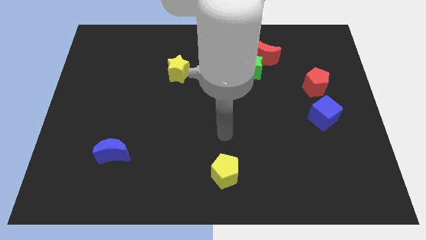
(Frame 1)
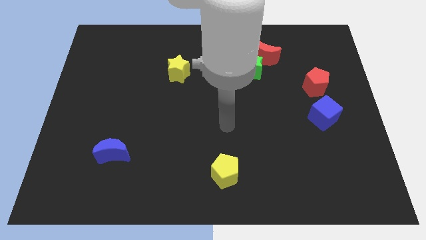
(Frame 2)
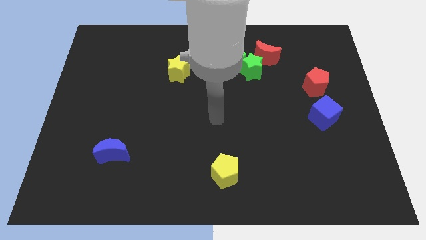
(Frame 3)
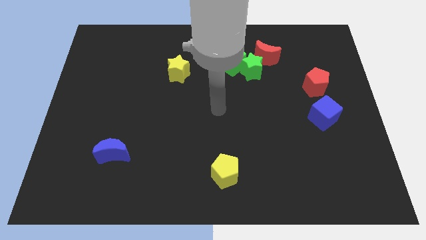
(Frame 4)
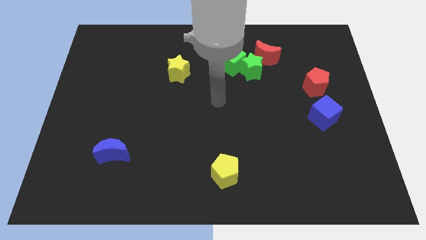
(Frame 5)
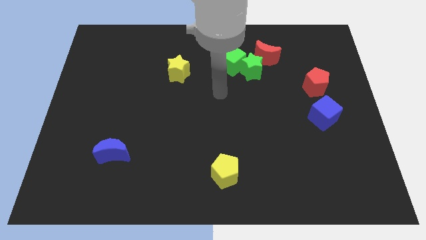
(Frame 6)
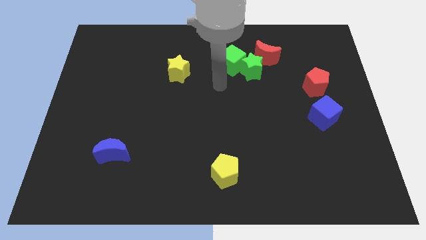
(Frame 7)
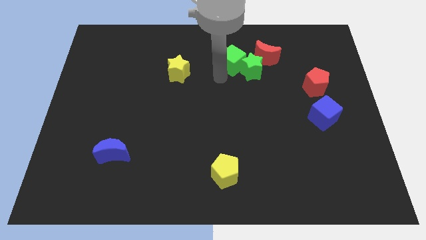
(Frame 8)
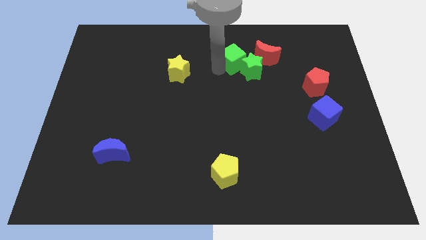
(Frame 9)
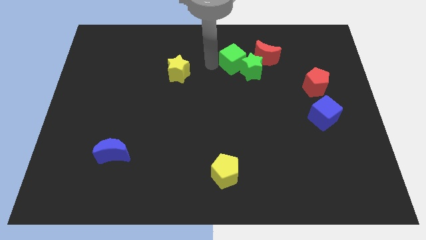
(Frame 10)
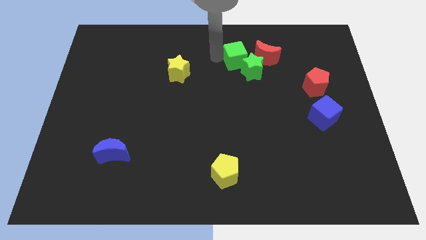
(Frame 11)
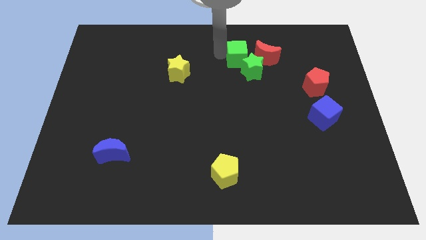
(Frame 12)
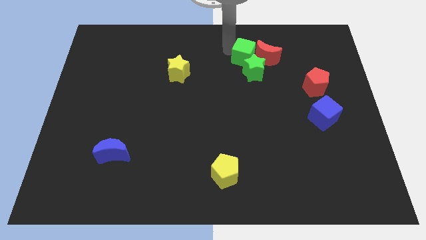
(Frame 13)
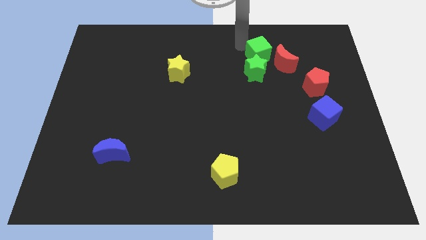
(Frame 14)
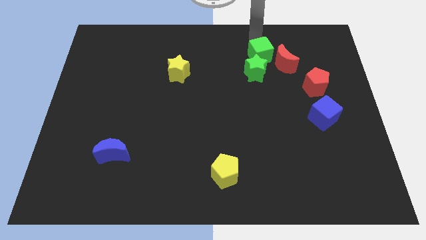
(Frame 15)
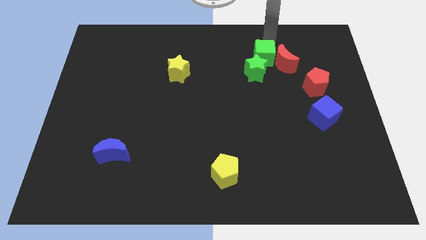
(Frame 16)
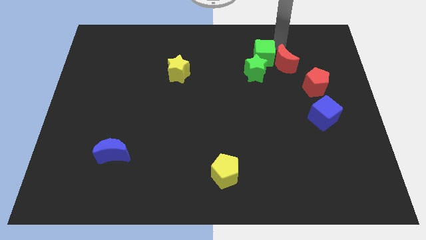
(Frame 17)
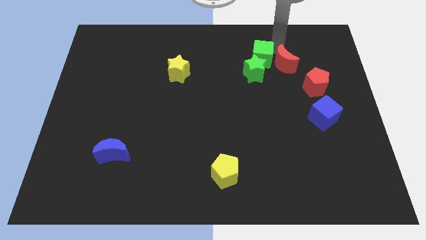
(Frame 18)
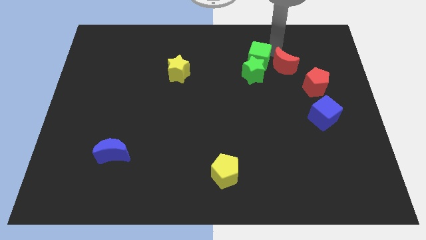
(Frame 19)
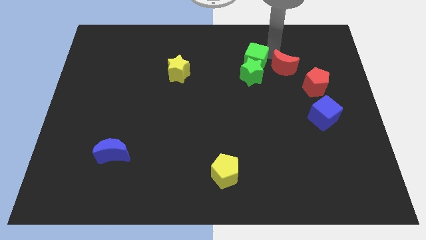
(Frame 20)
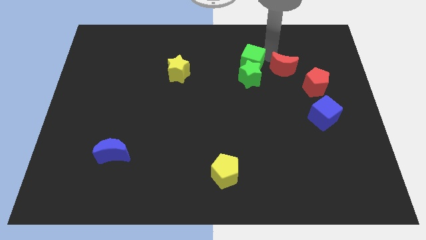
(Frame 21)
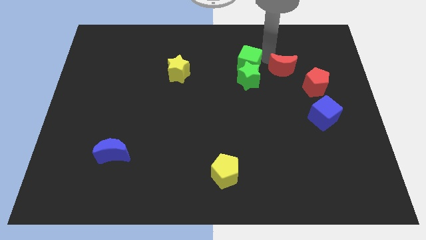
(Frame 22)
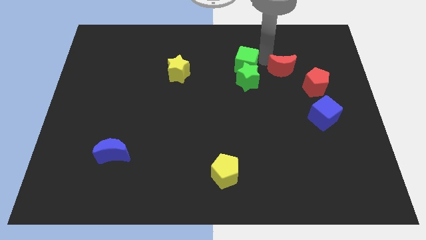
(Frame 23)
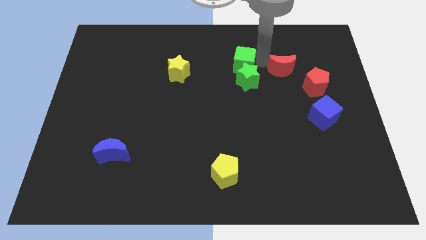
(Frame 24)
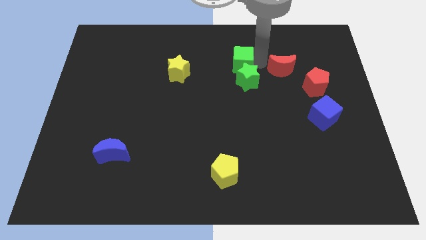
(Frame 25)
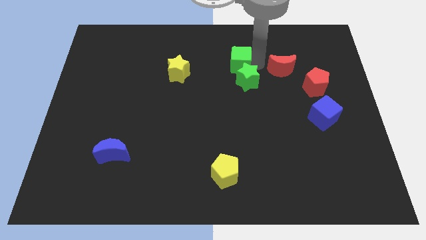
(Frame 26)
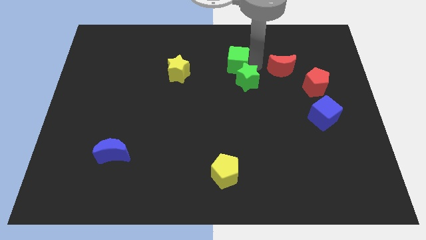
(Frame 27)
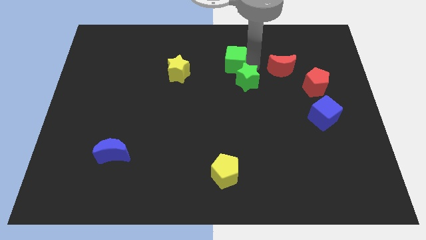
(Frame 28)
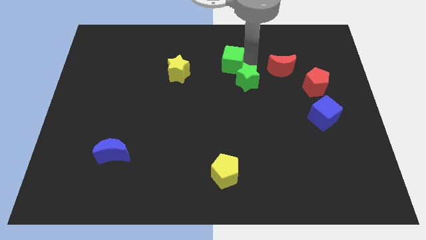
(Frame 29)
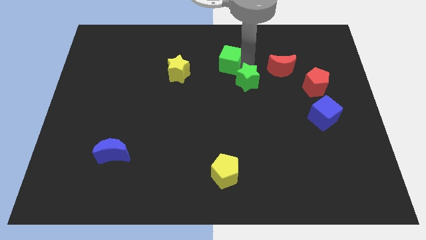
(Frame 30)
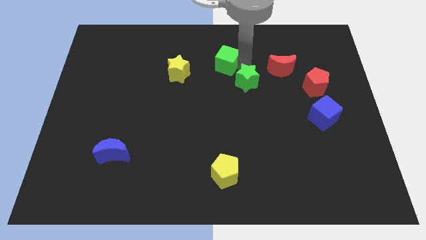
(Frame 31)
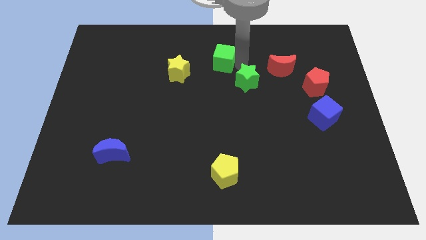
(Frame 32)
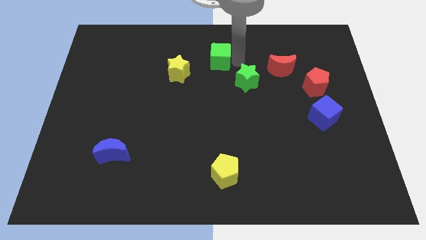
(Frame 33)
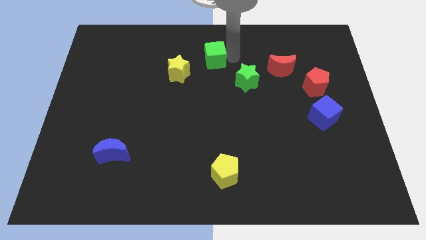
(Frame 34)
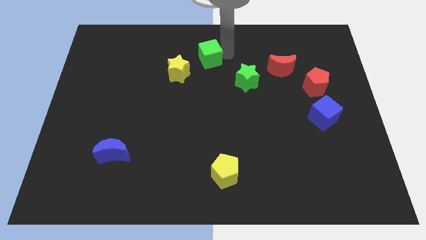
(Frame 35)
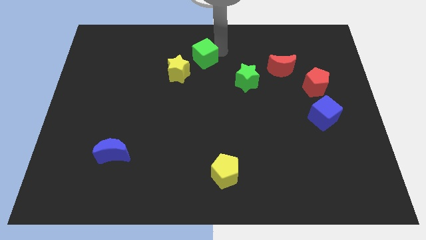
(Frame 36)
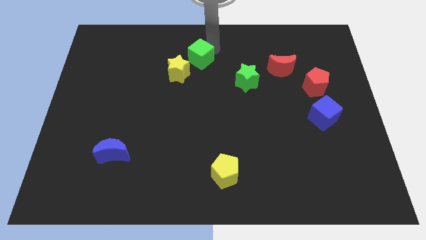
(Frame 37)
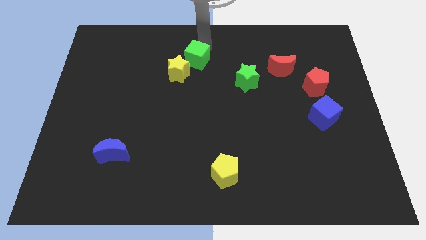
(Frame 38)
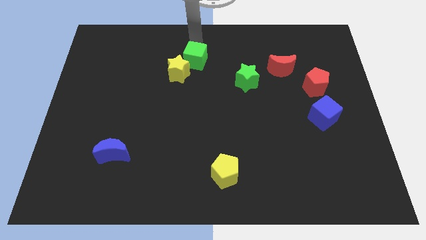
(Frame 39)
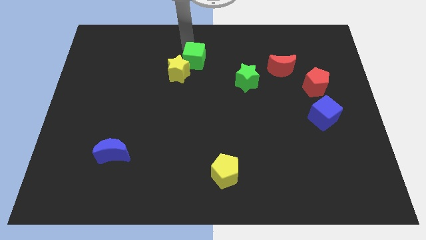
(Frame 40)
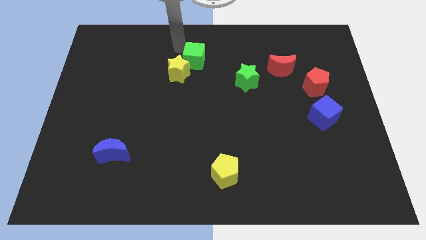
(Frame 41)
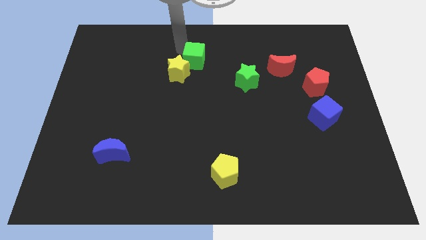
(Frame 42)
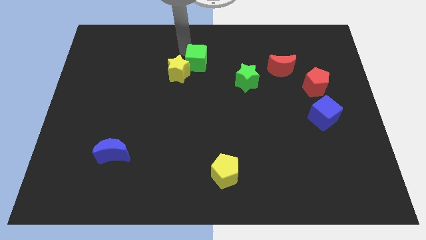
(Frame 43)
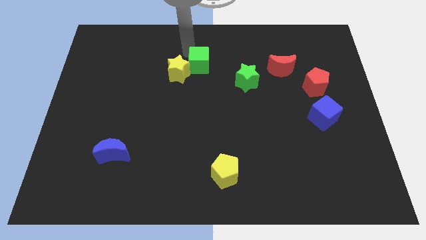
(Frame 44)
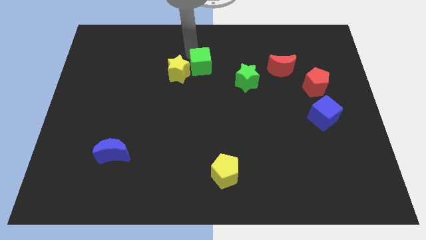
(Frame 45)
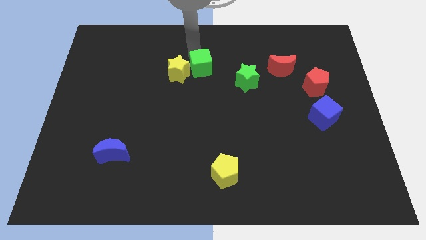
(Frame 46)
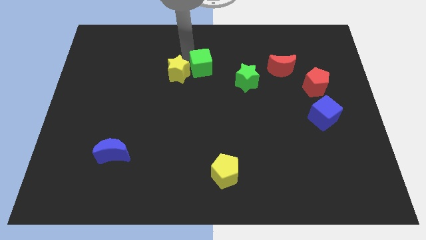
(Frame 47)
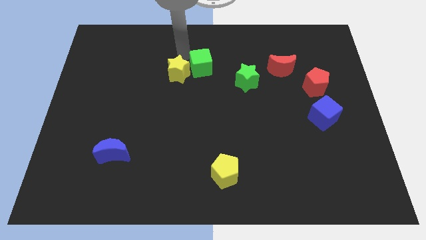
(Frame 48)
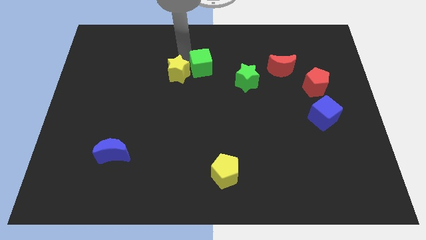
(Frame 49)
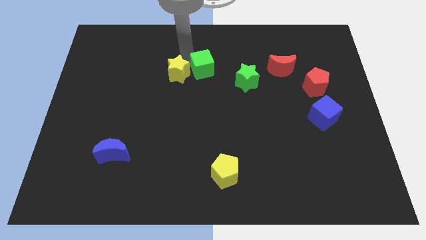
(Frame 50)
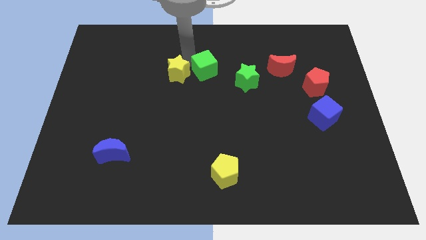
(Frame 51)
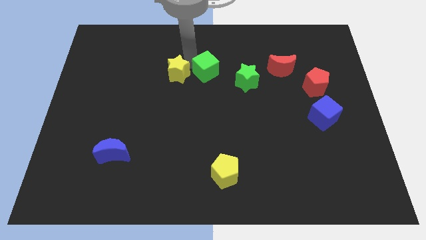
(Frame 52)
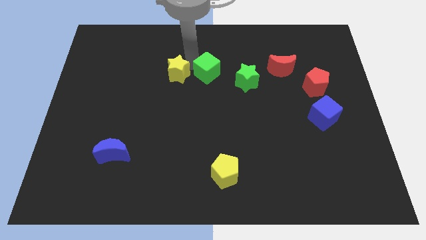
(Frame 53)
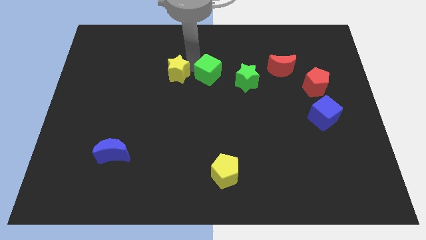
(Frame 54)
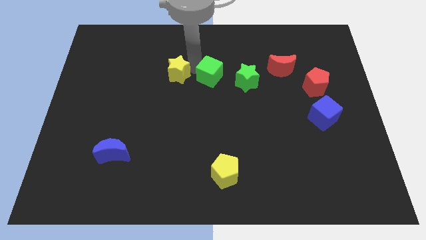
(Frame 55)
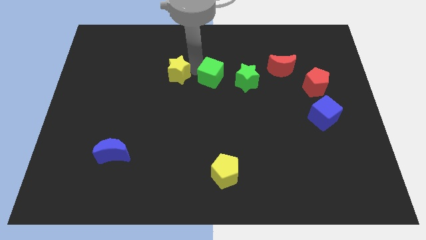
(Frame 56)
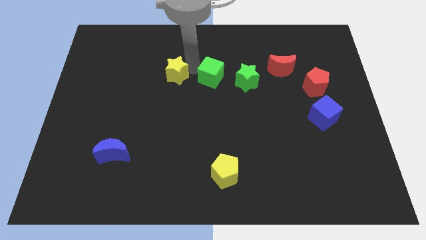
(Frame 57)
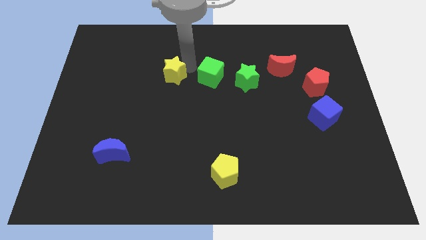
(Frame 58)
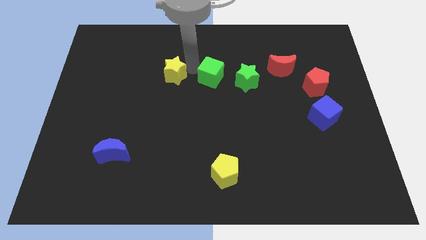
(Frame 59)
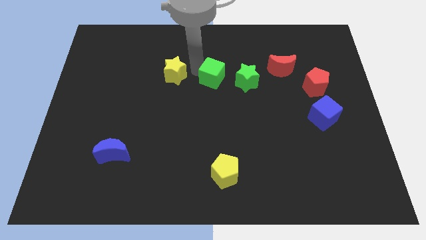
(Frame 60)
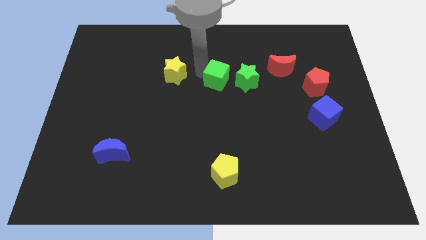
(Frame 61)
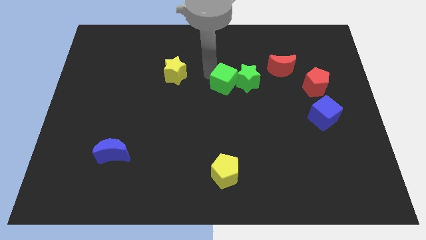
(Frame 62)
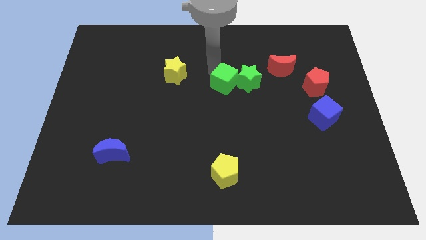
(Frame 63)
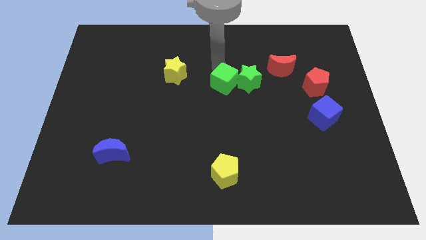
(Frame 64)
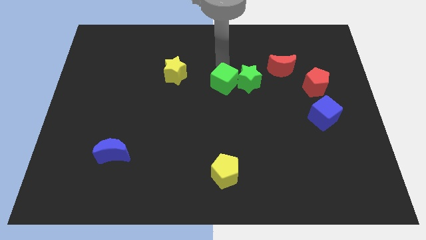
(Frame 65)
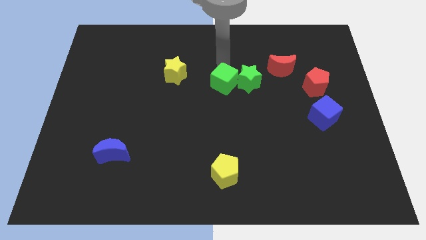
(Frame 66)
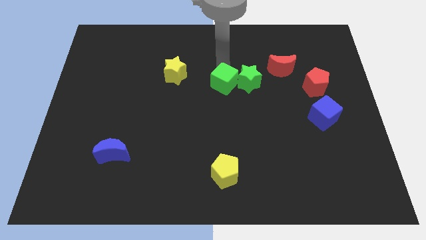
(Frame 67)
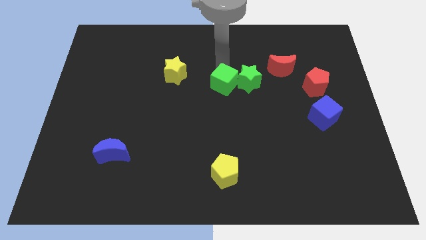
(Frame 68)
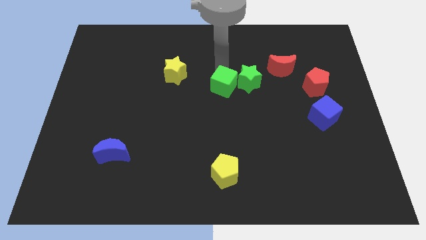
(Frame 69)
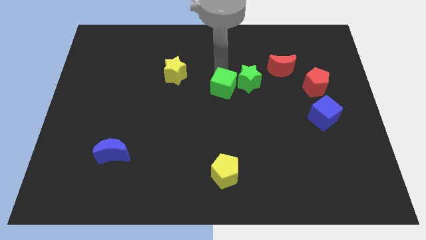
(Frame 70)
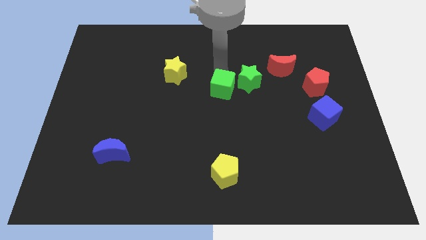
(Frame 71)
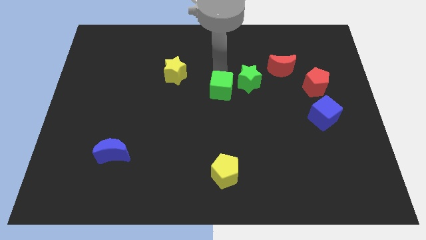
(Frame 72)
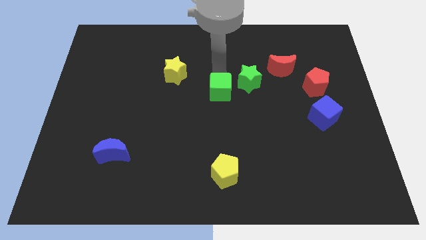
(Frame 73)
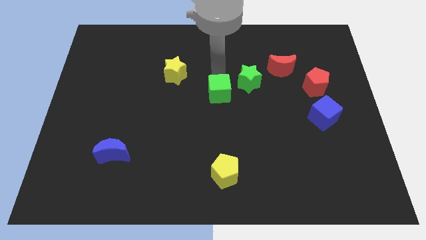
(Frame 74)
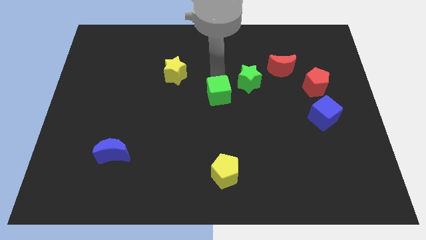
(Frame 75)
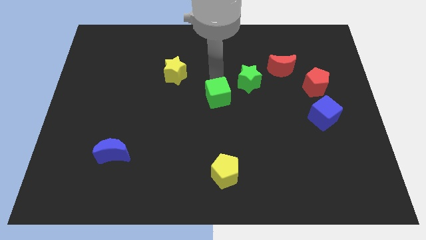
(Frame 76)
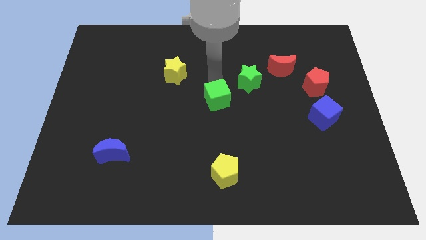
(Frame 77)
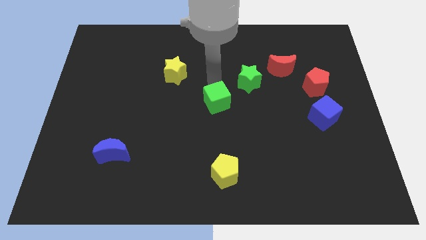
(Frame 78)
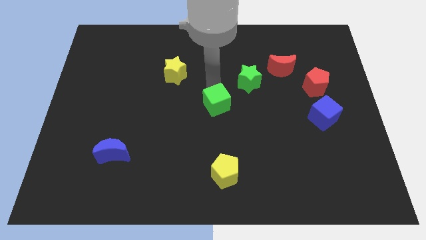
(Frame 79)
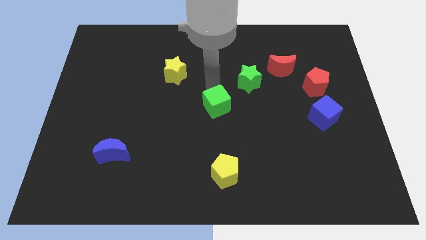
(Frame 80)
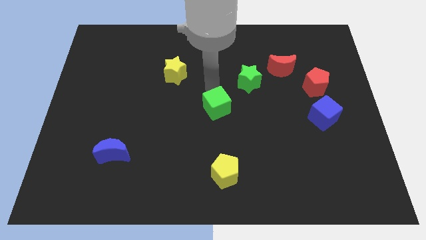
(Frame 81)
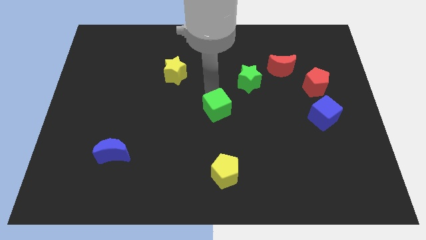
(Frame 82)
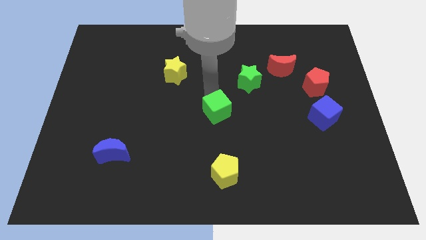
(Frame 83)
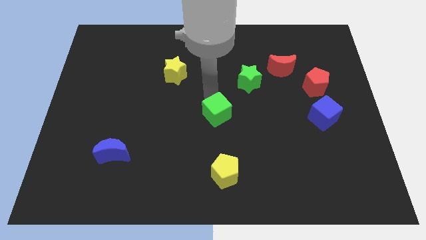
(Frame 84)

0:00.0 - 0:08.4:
slide the green cube to the top side of the yellow pentagon
